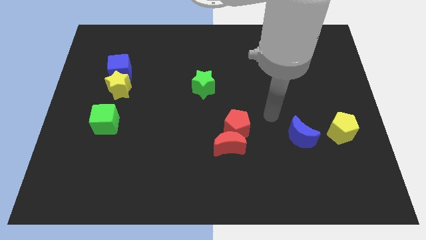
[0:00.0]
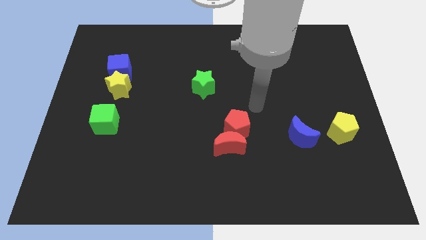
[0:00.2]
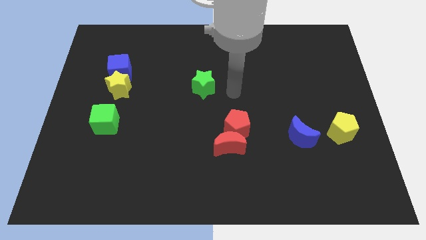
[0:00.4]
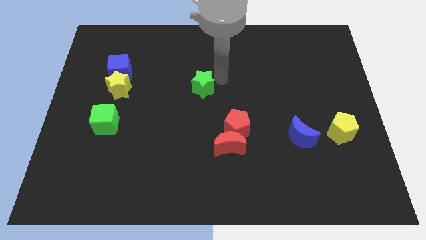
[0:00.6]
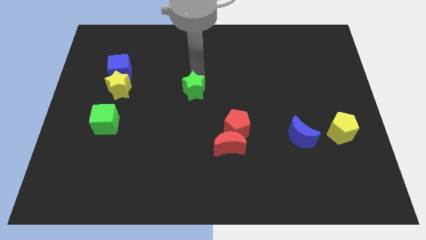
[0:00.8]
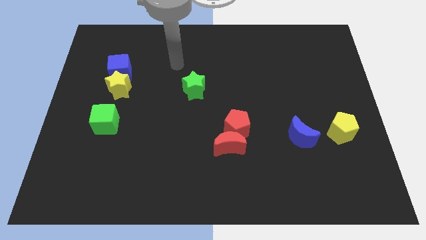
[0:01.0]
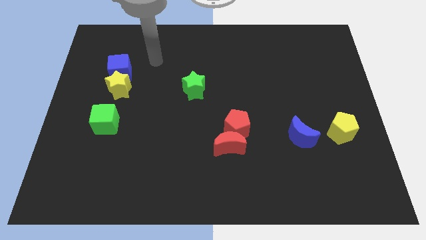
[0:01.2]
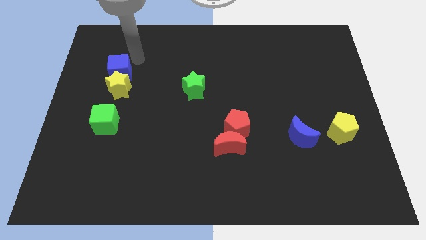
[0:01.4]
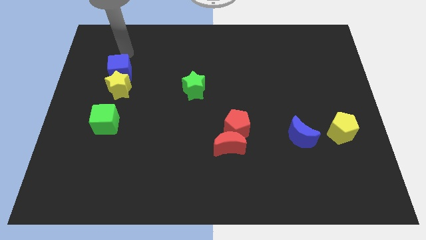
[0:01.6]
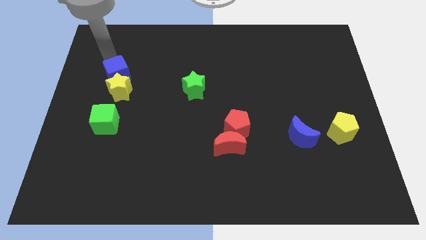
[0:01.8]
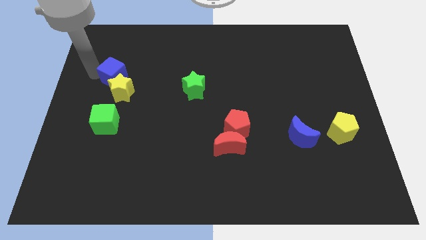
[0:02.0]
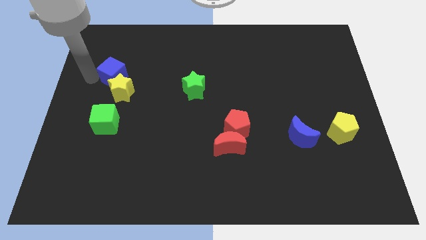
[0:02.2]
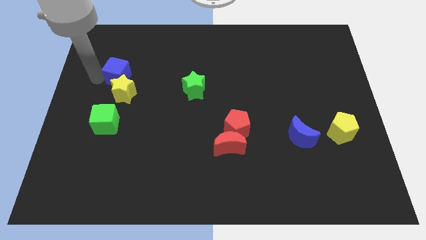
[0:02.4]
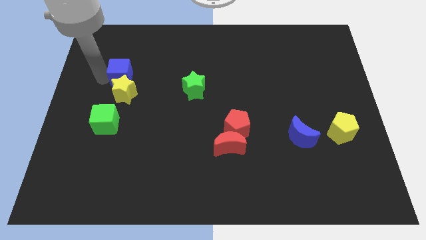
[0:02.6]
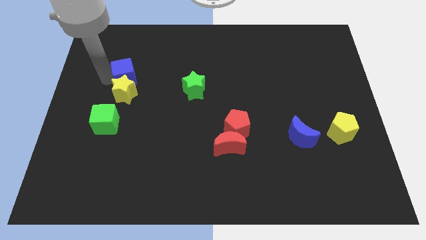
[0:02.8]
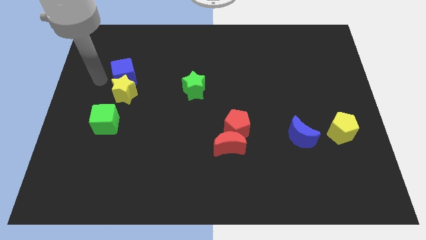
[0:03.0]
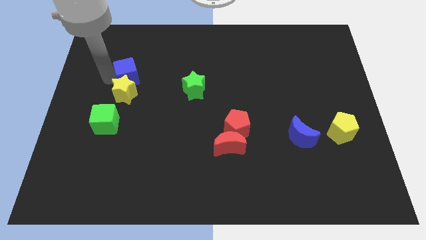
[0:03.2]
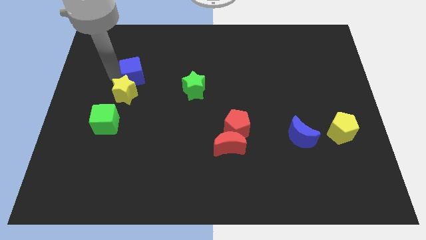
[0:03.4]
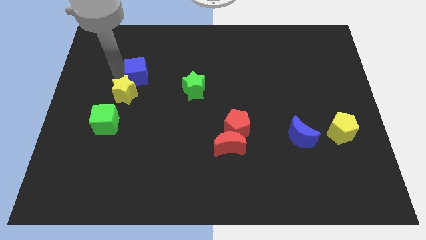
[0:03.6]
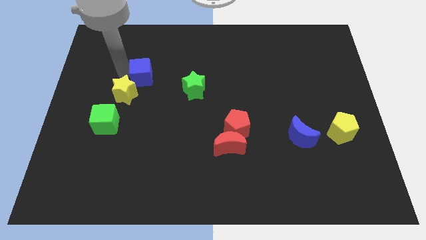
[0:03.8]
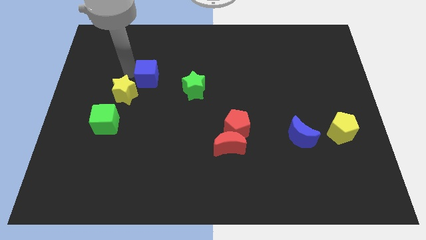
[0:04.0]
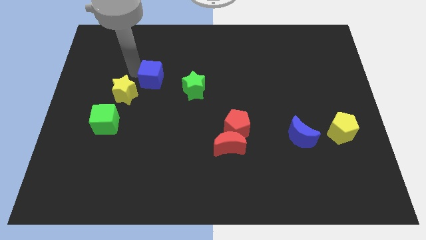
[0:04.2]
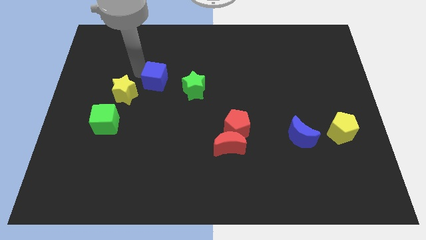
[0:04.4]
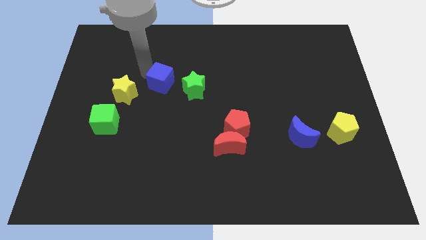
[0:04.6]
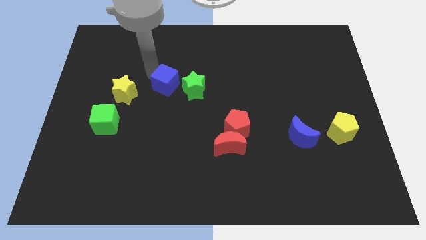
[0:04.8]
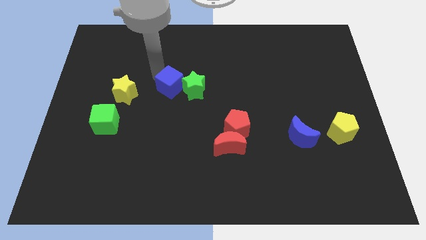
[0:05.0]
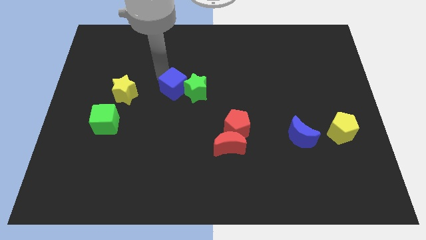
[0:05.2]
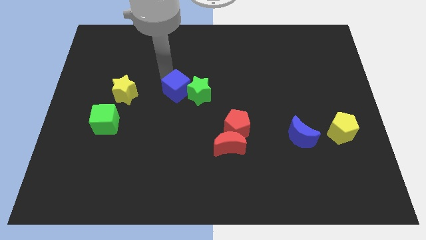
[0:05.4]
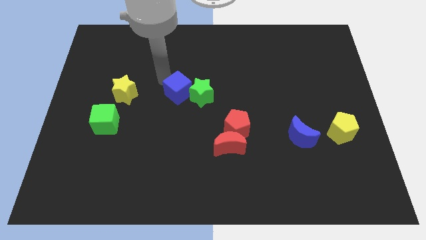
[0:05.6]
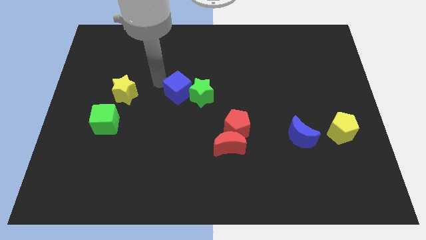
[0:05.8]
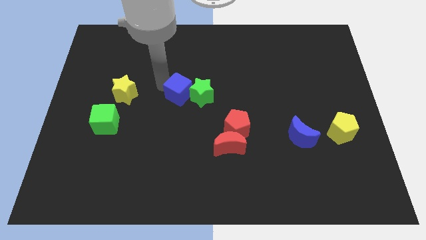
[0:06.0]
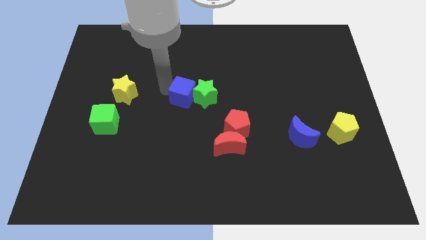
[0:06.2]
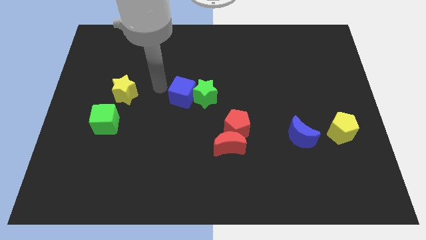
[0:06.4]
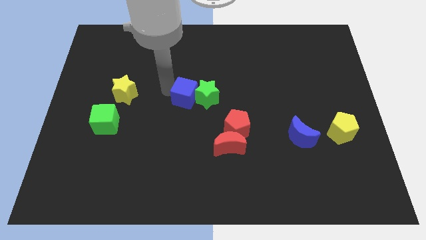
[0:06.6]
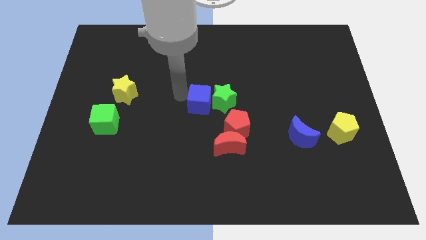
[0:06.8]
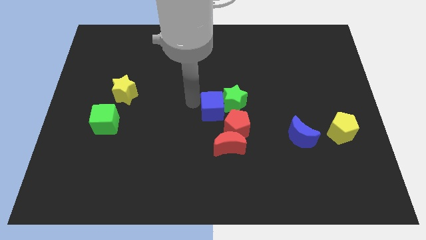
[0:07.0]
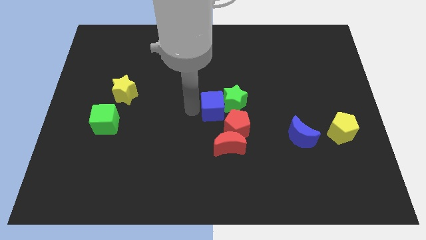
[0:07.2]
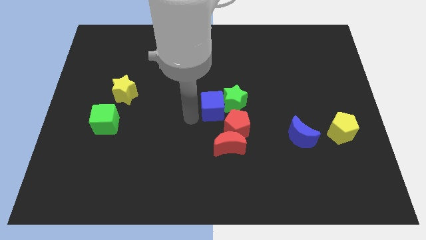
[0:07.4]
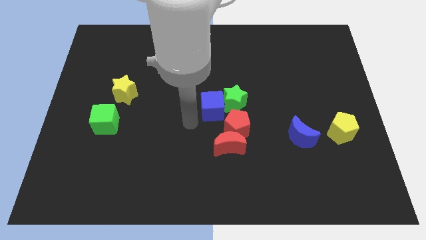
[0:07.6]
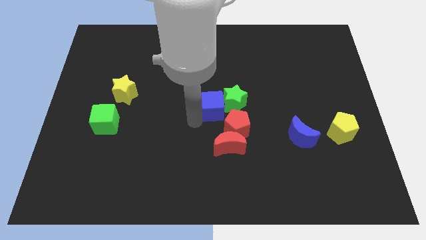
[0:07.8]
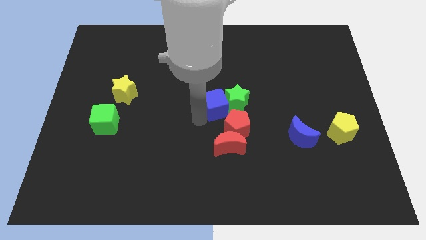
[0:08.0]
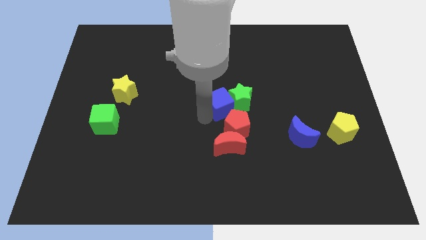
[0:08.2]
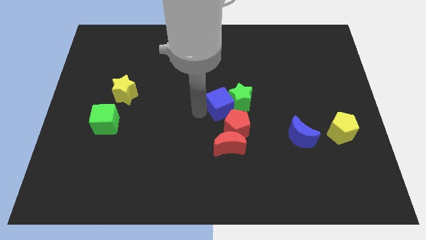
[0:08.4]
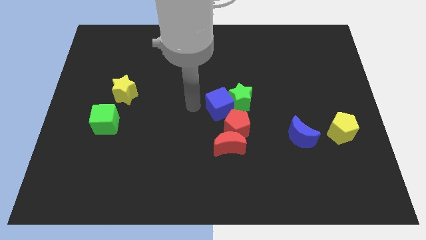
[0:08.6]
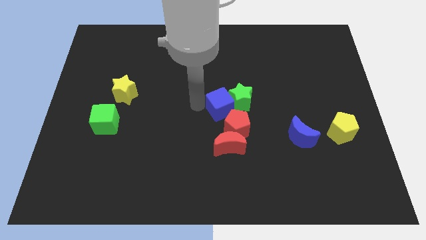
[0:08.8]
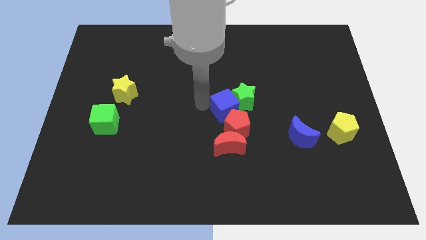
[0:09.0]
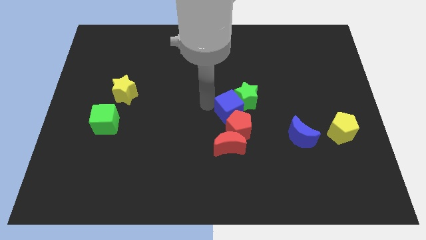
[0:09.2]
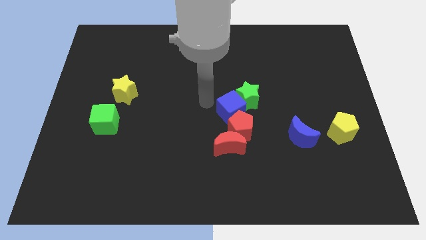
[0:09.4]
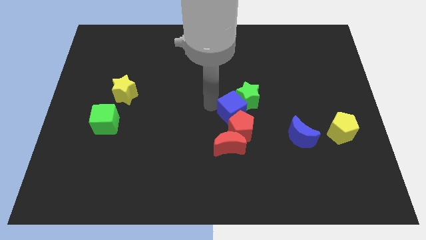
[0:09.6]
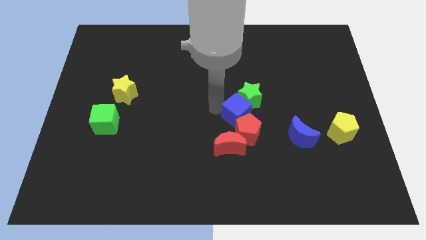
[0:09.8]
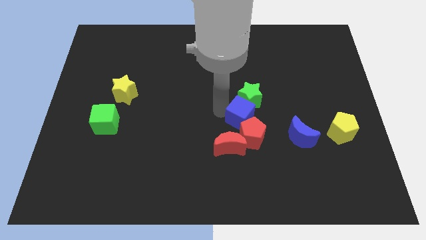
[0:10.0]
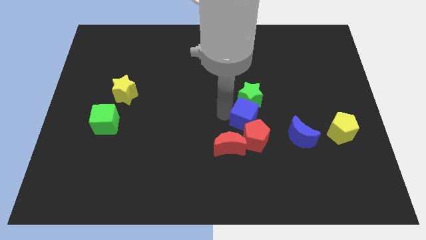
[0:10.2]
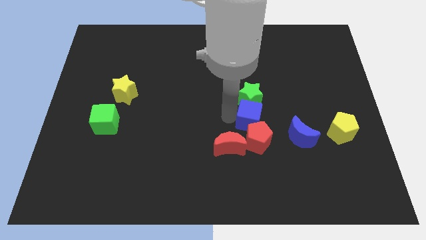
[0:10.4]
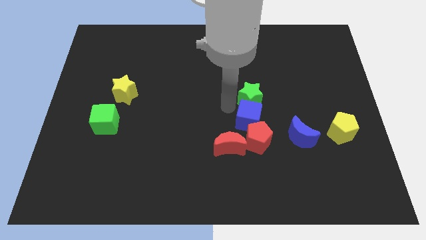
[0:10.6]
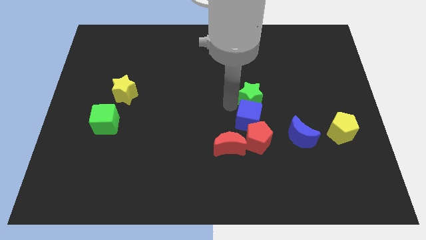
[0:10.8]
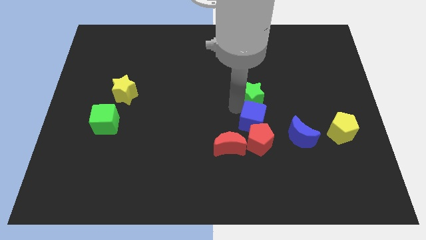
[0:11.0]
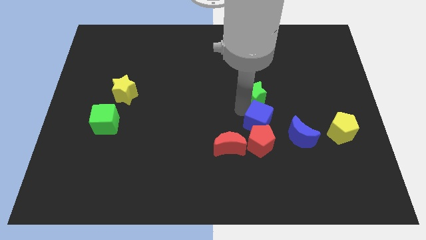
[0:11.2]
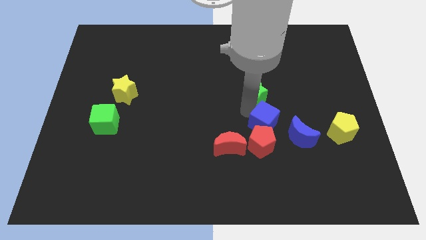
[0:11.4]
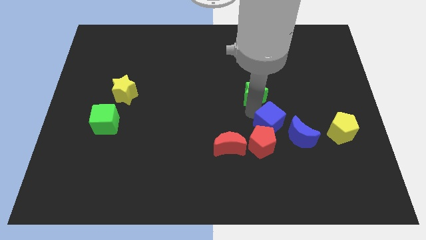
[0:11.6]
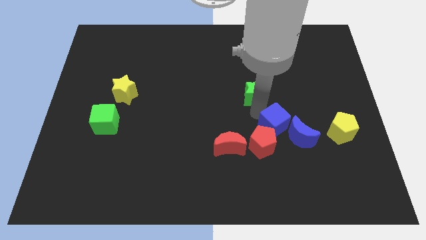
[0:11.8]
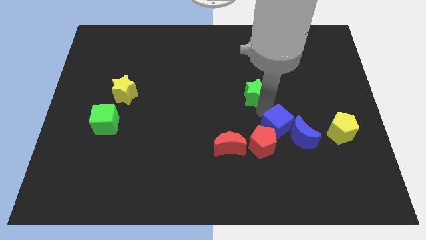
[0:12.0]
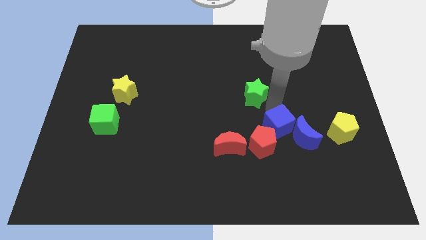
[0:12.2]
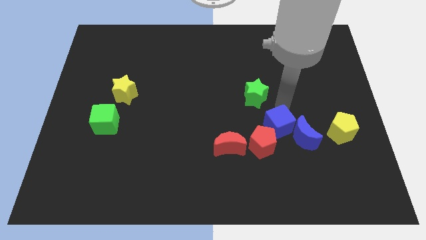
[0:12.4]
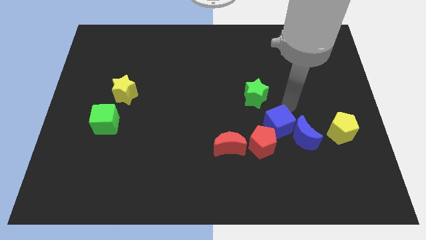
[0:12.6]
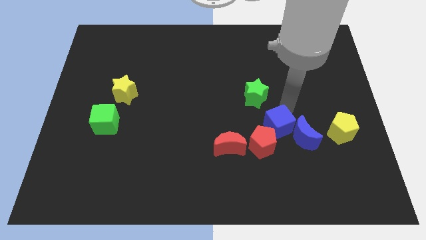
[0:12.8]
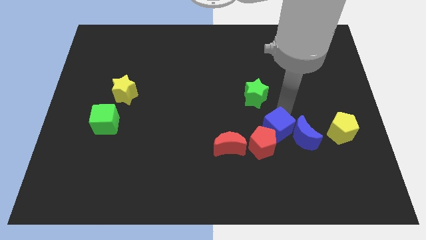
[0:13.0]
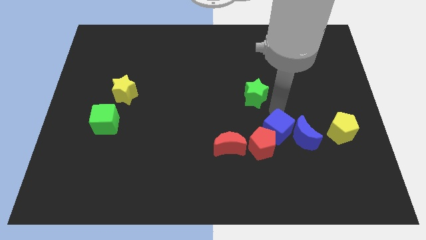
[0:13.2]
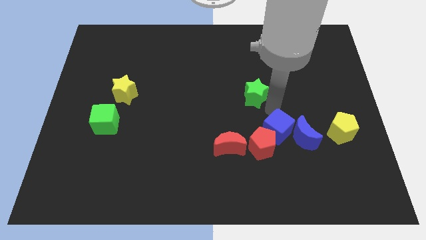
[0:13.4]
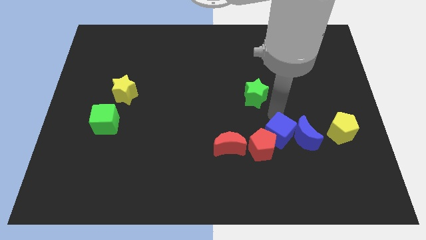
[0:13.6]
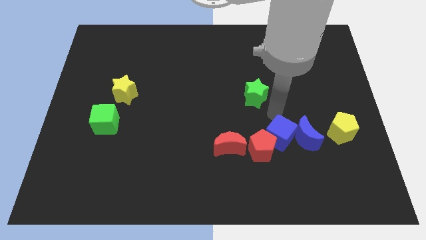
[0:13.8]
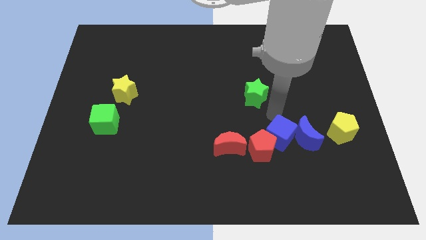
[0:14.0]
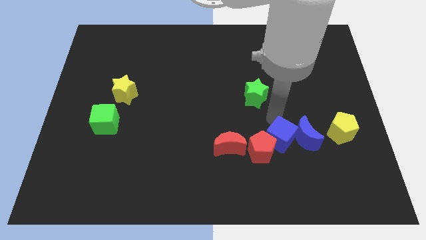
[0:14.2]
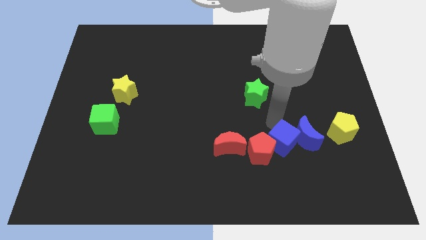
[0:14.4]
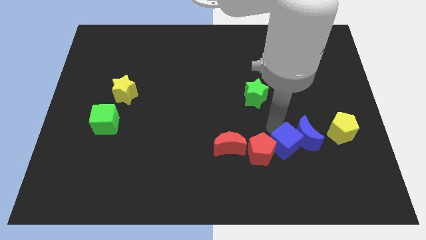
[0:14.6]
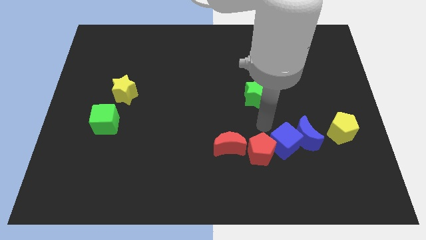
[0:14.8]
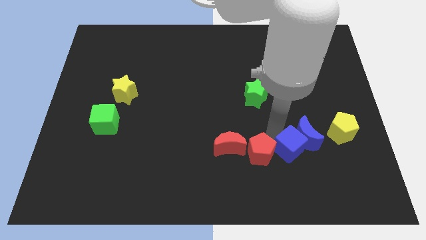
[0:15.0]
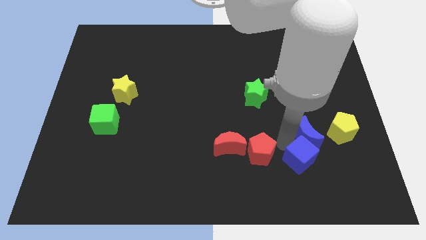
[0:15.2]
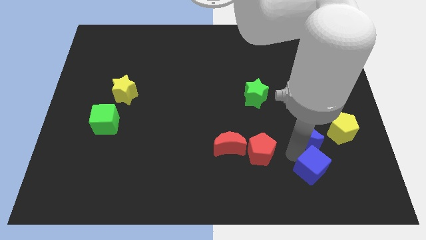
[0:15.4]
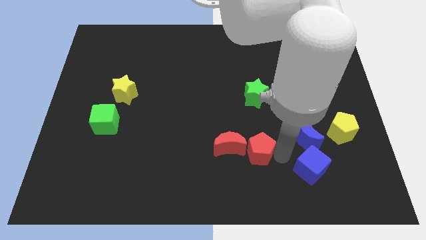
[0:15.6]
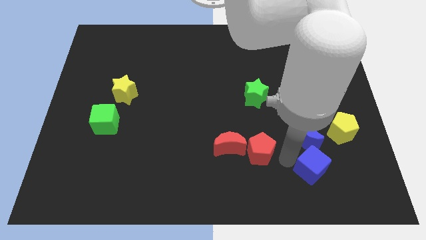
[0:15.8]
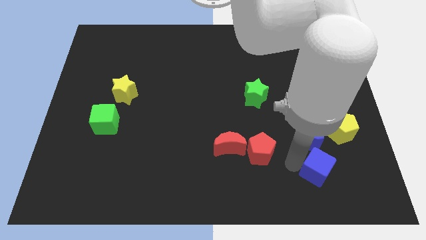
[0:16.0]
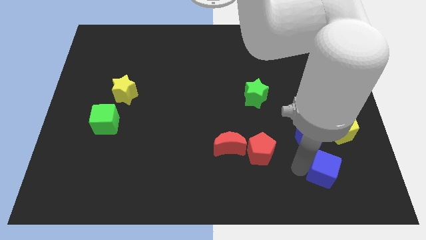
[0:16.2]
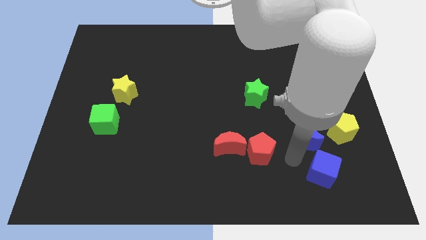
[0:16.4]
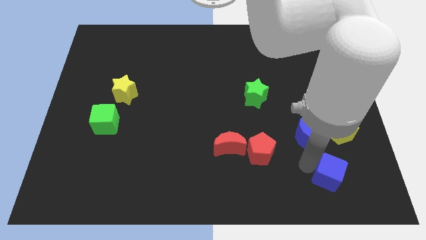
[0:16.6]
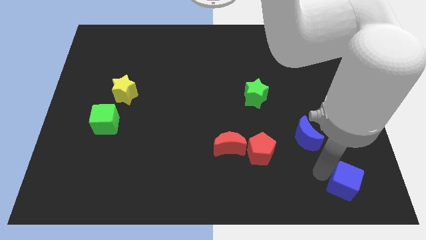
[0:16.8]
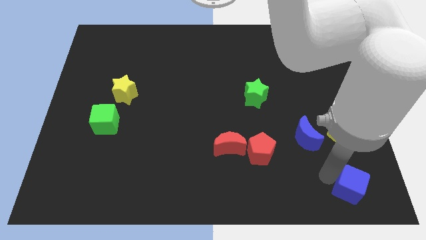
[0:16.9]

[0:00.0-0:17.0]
push the blue cube to the bottom right corner
